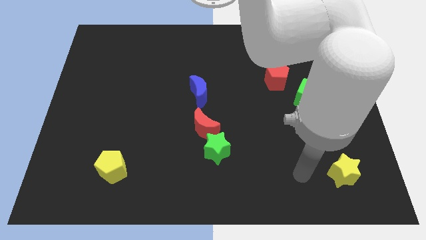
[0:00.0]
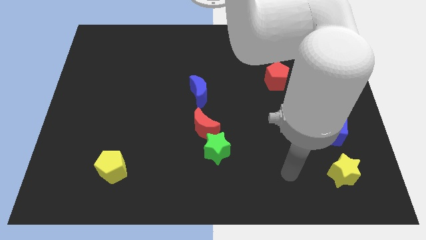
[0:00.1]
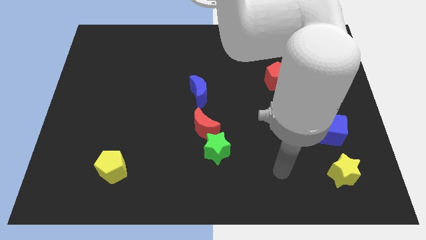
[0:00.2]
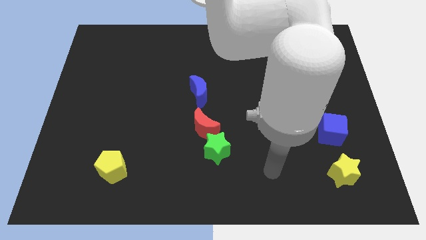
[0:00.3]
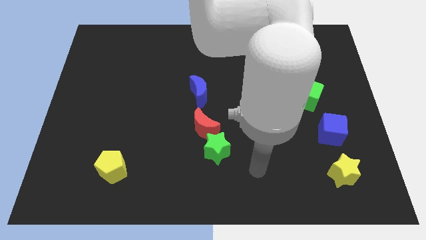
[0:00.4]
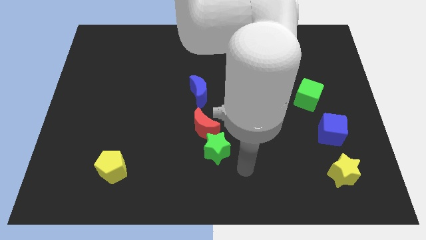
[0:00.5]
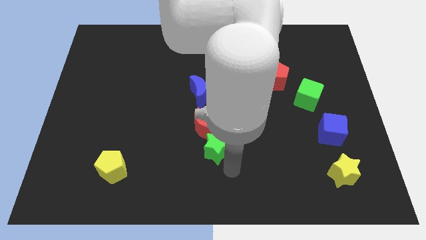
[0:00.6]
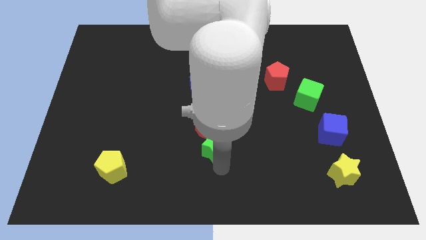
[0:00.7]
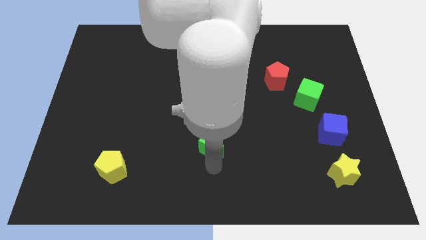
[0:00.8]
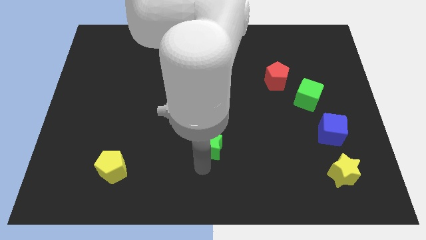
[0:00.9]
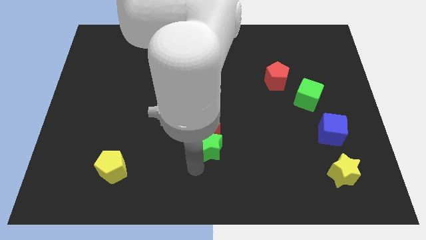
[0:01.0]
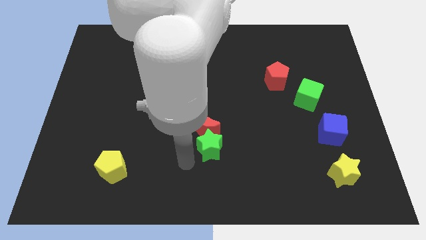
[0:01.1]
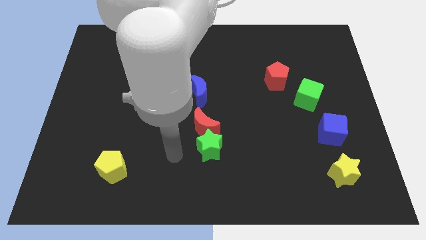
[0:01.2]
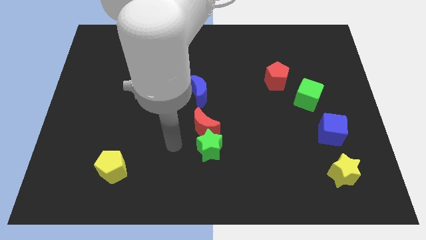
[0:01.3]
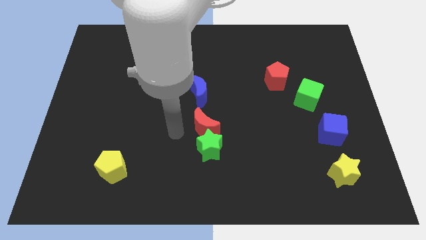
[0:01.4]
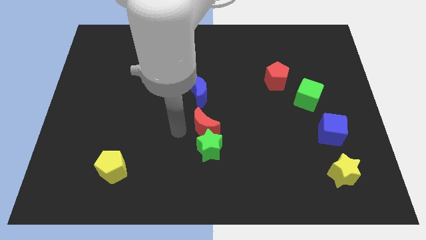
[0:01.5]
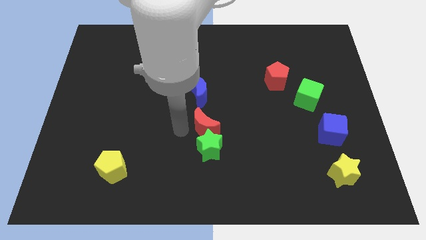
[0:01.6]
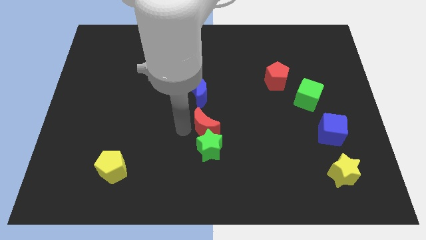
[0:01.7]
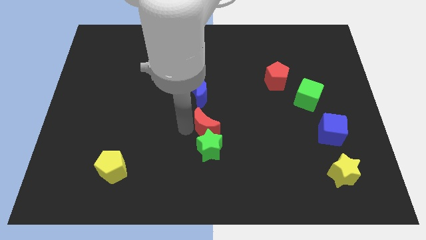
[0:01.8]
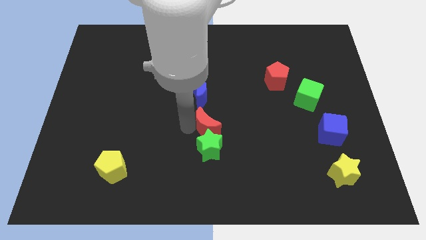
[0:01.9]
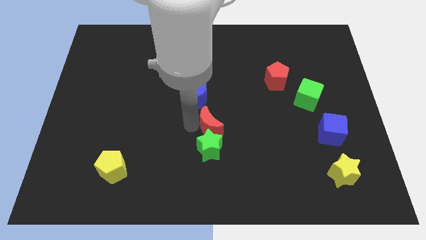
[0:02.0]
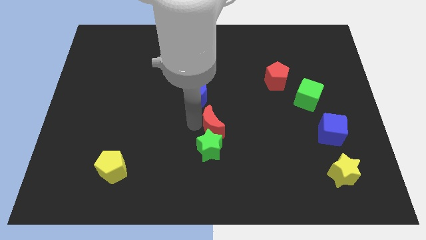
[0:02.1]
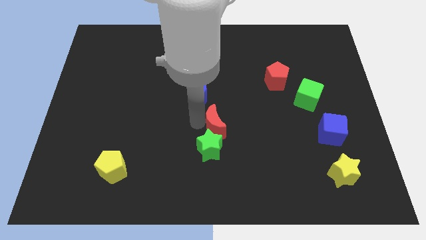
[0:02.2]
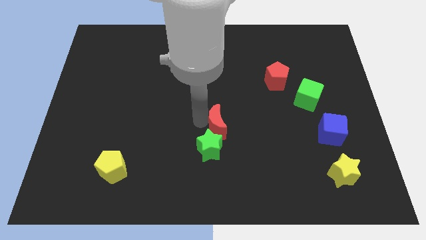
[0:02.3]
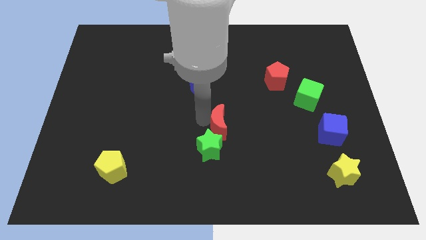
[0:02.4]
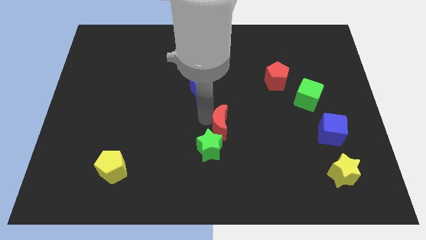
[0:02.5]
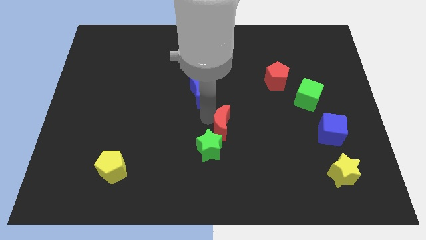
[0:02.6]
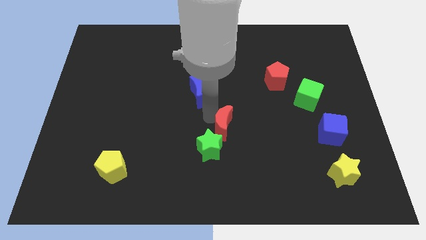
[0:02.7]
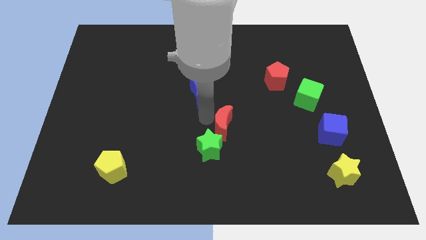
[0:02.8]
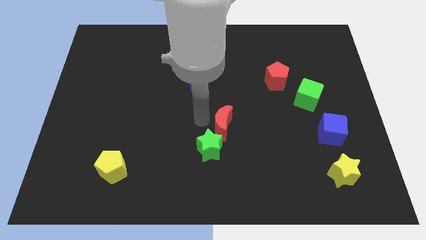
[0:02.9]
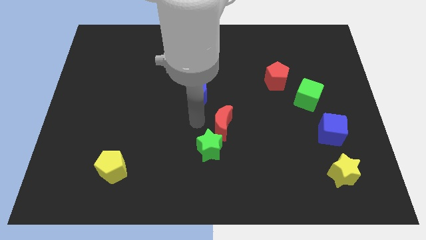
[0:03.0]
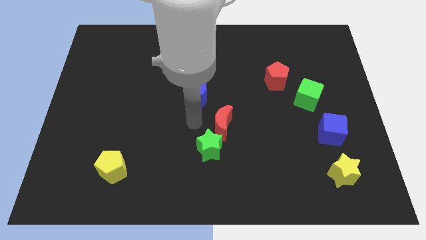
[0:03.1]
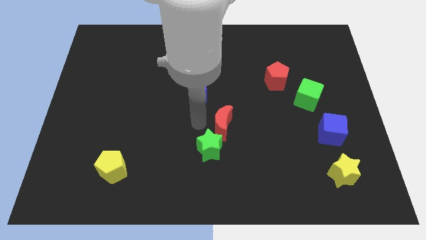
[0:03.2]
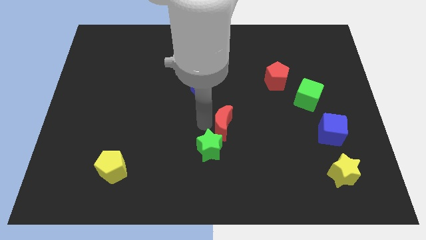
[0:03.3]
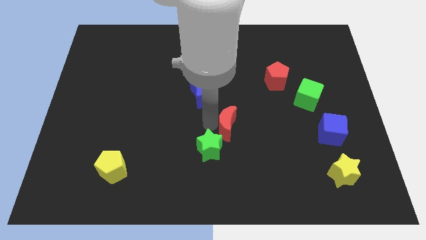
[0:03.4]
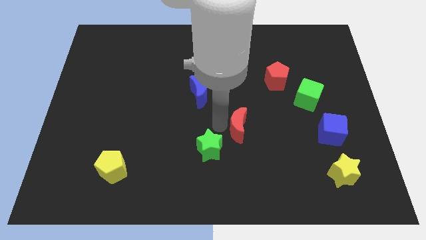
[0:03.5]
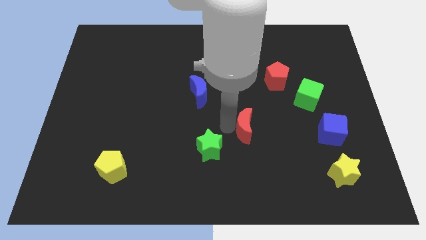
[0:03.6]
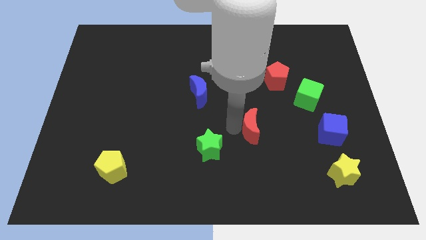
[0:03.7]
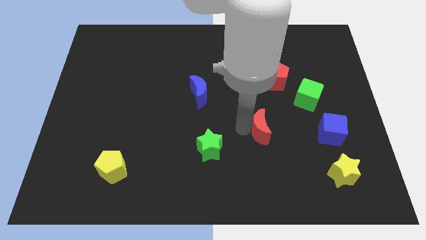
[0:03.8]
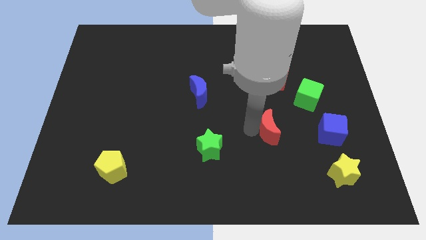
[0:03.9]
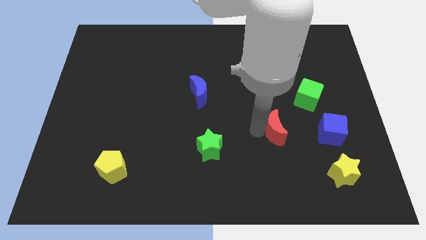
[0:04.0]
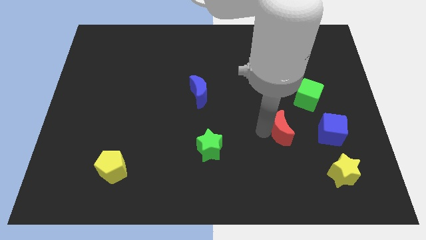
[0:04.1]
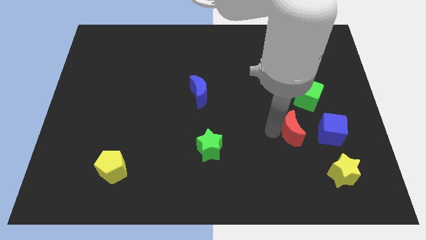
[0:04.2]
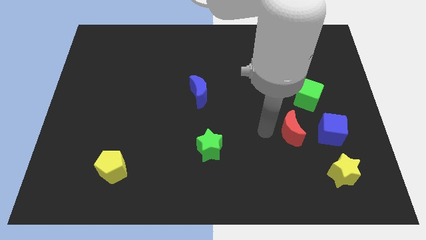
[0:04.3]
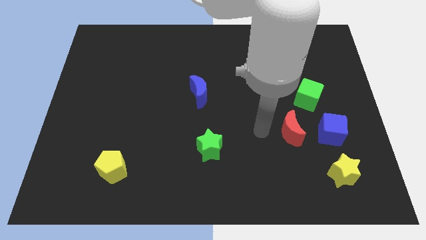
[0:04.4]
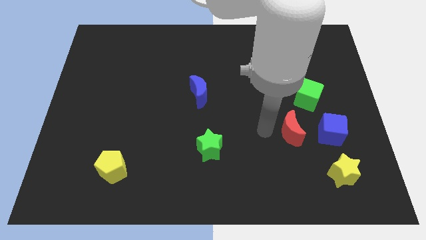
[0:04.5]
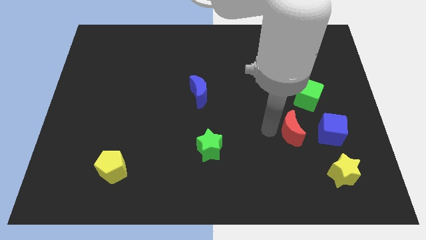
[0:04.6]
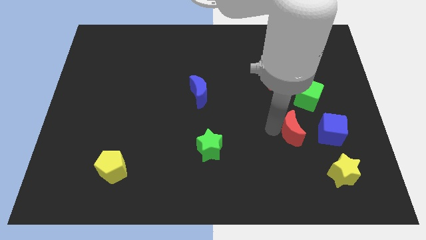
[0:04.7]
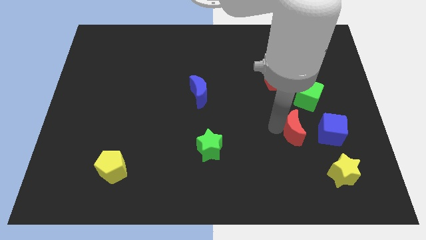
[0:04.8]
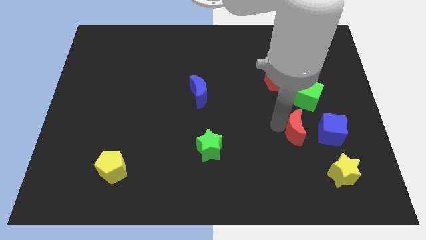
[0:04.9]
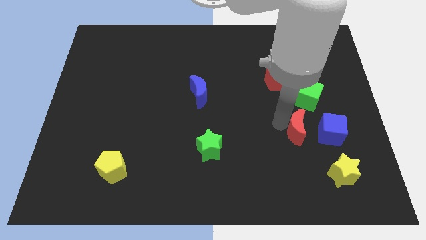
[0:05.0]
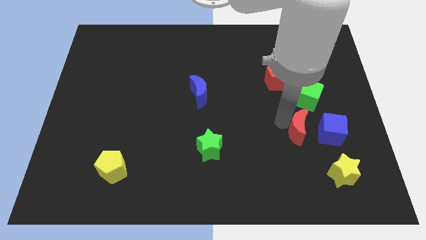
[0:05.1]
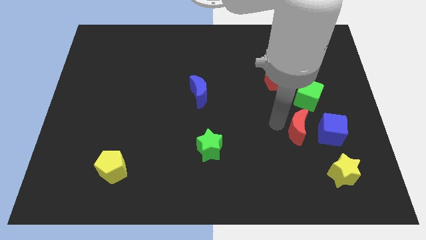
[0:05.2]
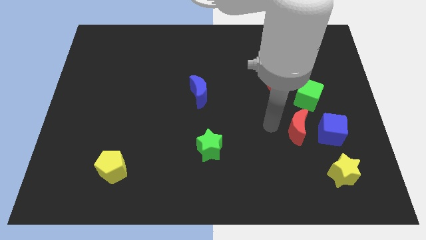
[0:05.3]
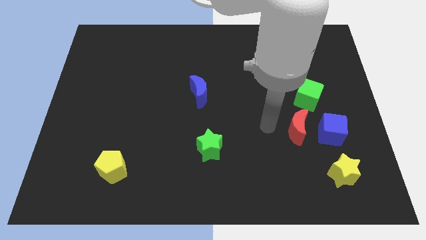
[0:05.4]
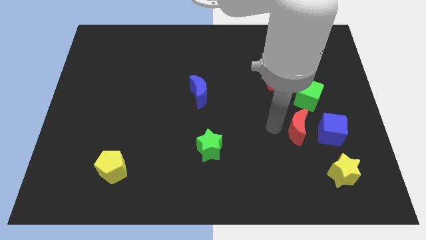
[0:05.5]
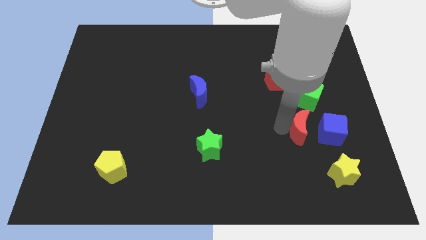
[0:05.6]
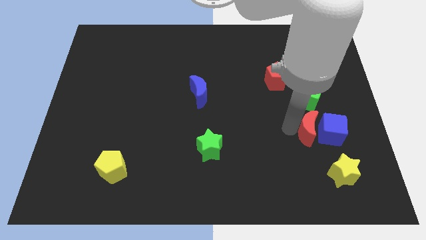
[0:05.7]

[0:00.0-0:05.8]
push the red moon to the blue cube

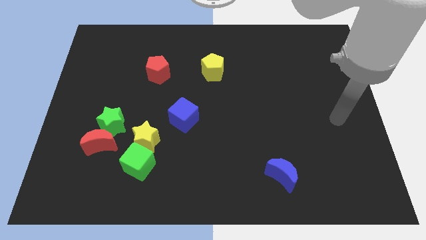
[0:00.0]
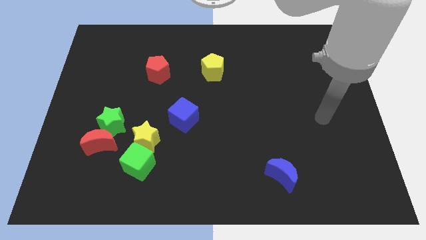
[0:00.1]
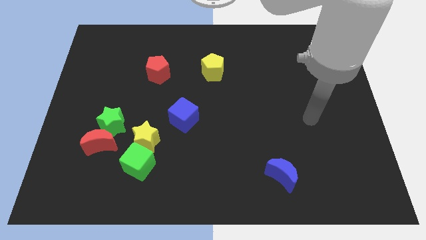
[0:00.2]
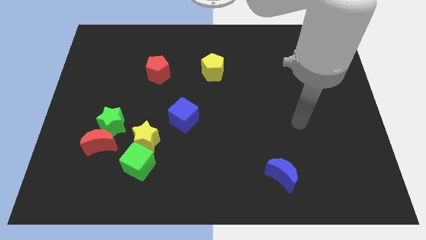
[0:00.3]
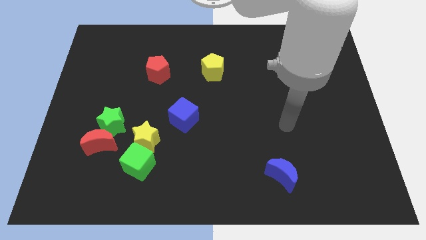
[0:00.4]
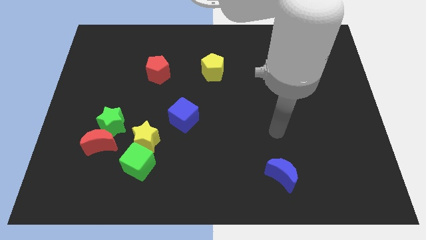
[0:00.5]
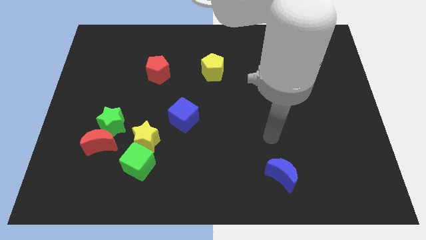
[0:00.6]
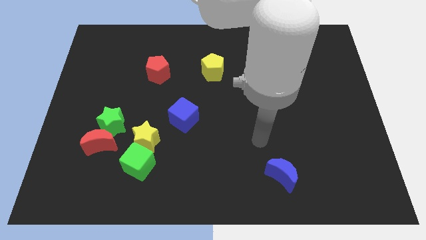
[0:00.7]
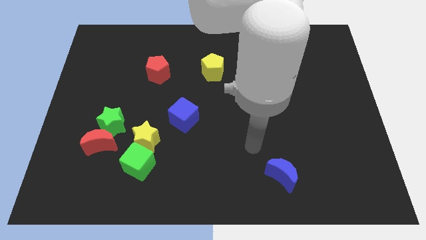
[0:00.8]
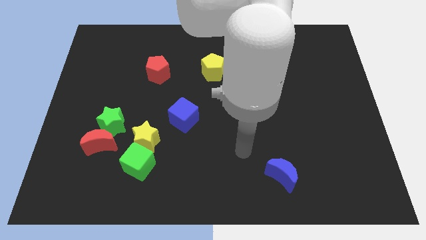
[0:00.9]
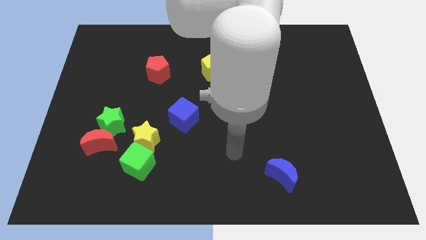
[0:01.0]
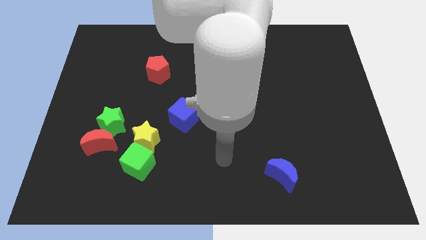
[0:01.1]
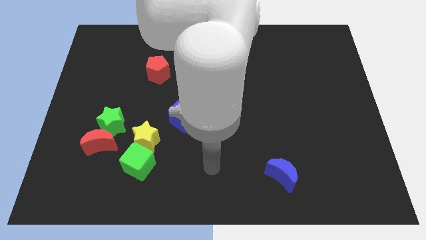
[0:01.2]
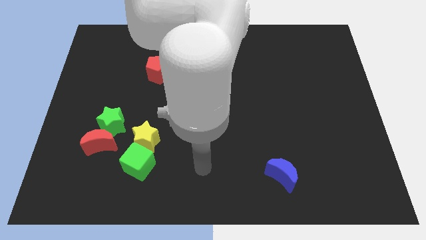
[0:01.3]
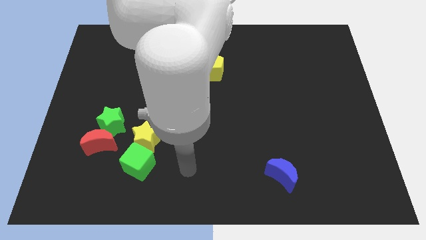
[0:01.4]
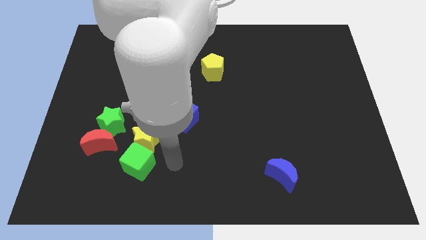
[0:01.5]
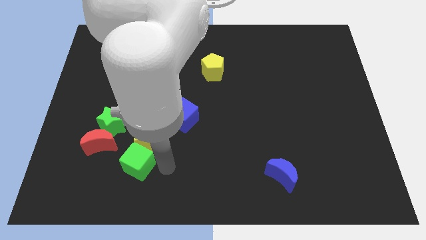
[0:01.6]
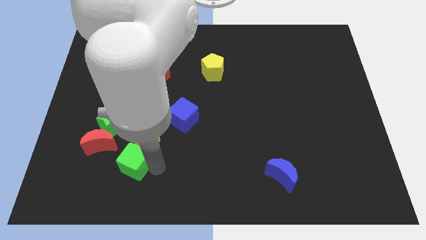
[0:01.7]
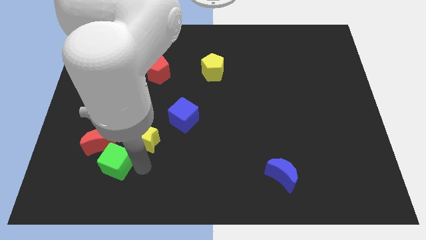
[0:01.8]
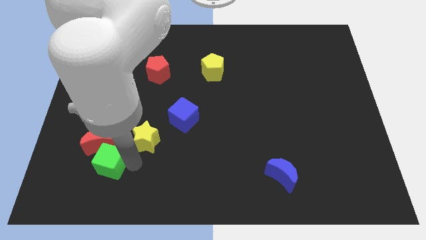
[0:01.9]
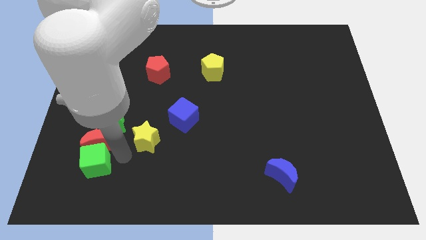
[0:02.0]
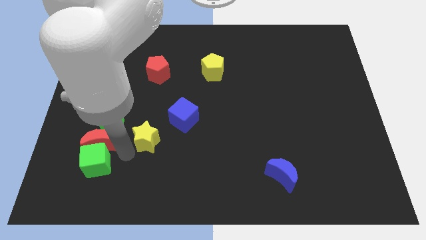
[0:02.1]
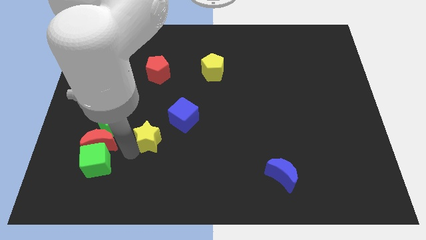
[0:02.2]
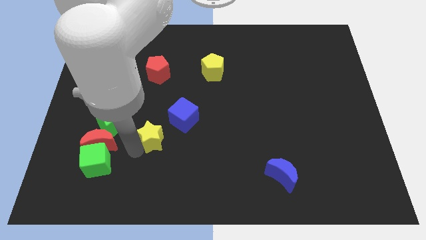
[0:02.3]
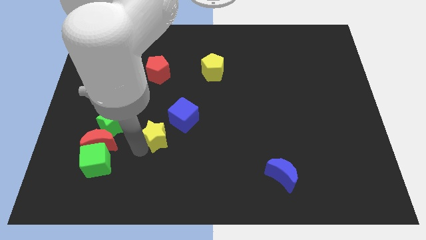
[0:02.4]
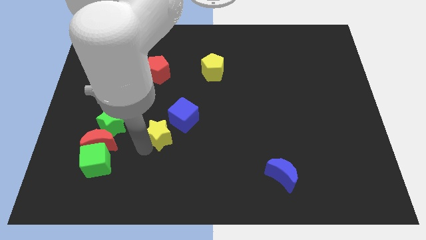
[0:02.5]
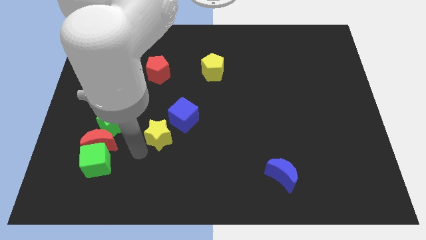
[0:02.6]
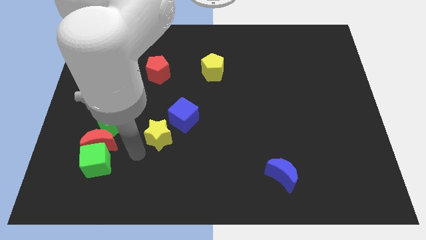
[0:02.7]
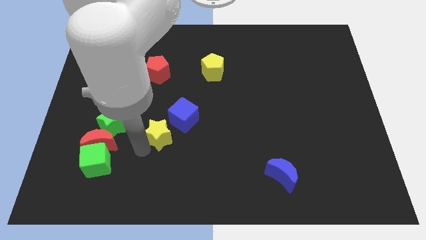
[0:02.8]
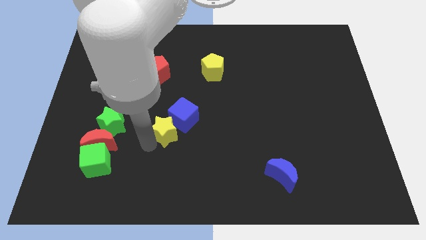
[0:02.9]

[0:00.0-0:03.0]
slide the yellow star to the blue cube
